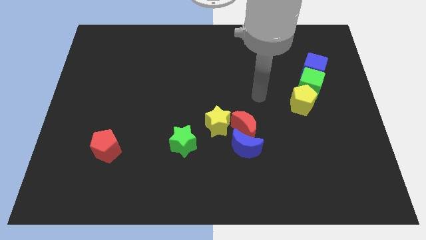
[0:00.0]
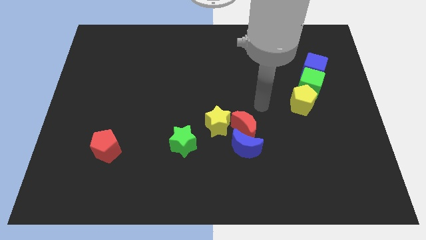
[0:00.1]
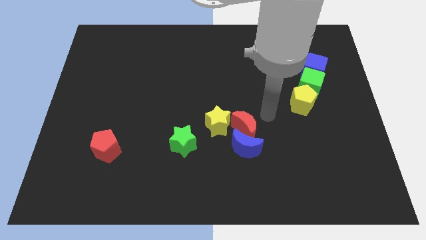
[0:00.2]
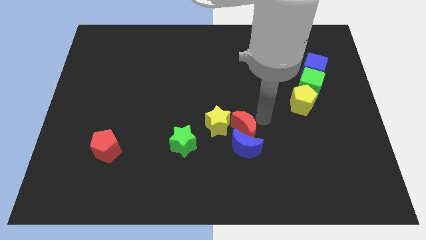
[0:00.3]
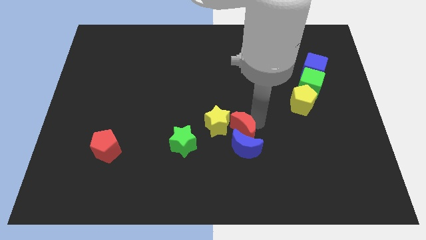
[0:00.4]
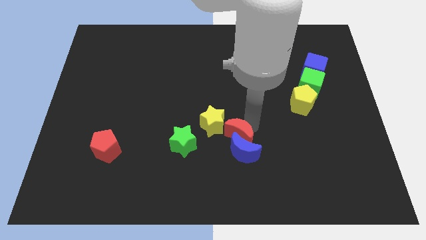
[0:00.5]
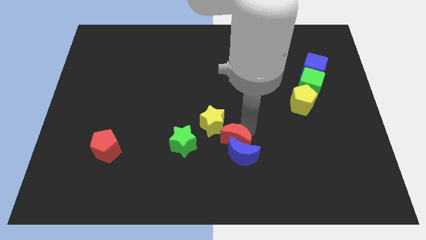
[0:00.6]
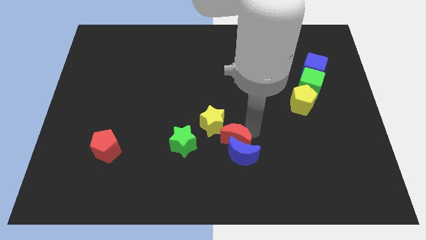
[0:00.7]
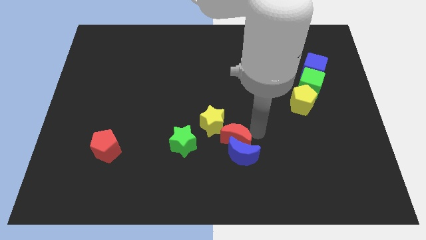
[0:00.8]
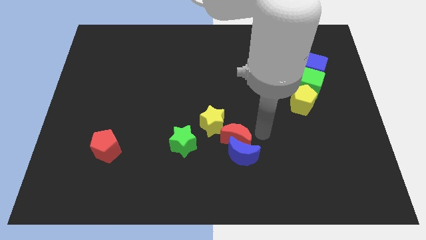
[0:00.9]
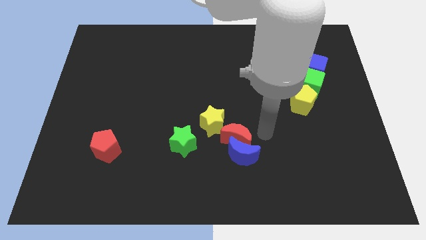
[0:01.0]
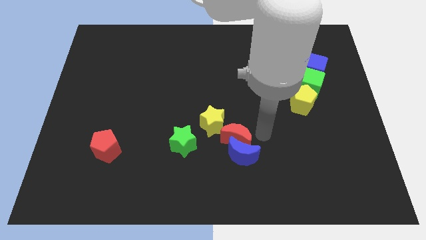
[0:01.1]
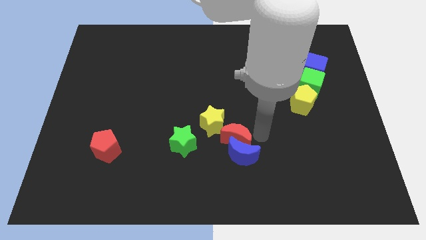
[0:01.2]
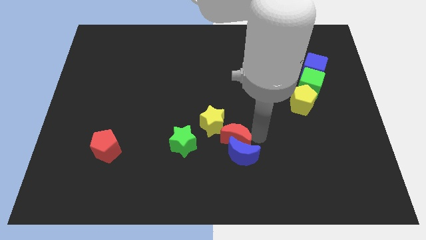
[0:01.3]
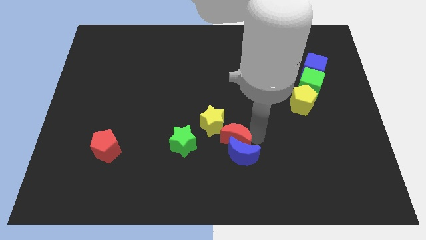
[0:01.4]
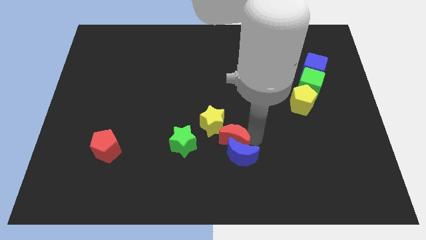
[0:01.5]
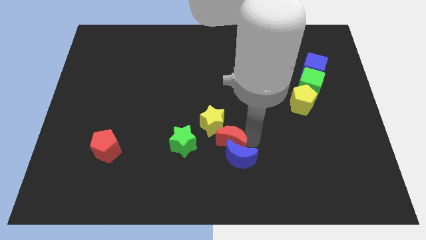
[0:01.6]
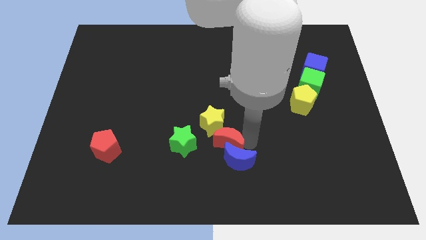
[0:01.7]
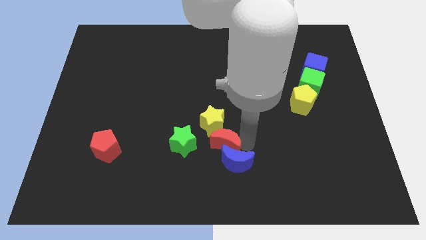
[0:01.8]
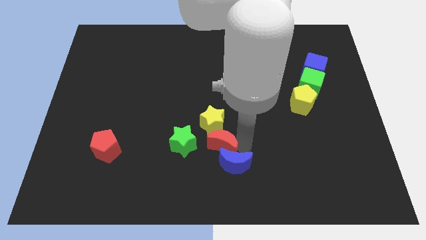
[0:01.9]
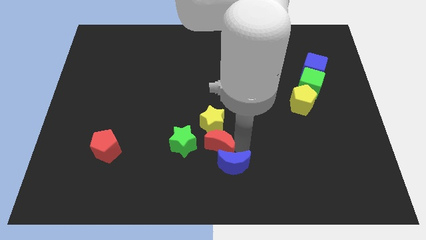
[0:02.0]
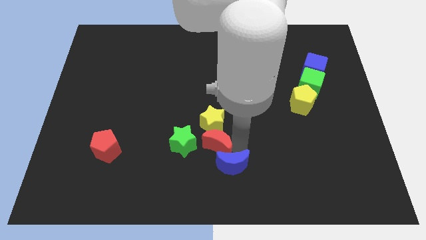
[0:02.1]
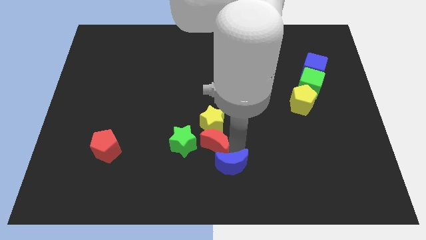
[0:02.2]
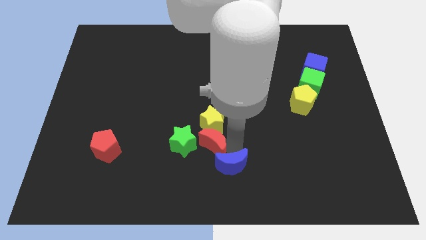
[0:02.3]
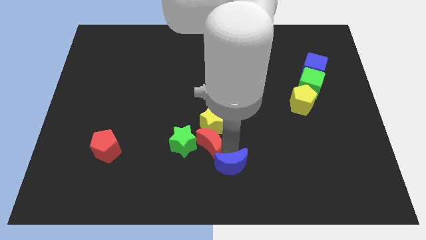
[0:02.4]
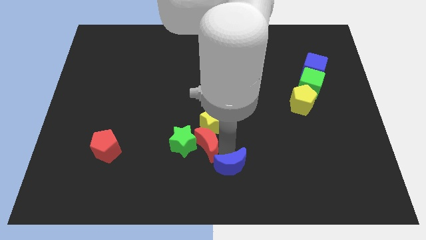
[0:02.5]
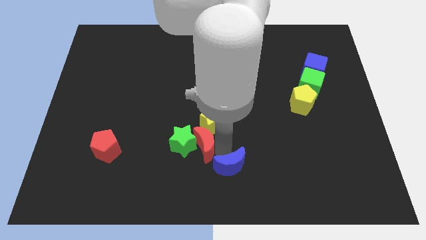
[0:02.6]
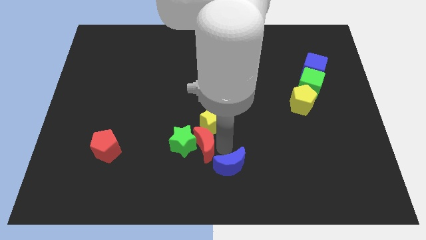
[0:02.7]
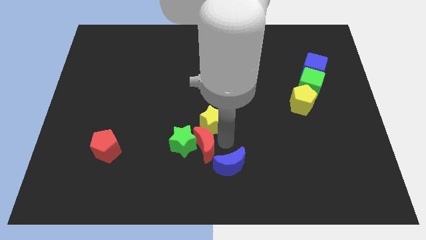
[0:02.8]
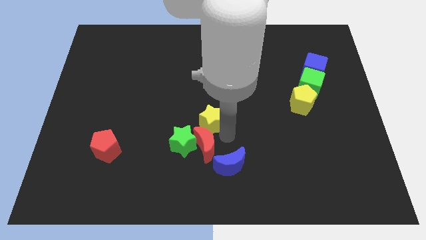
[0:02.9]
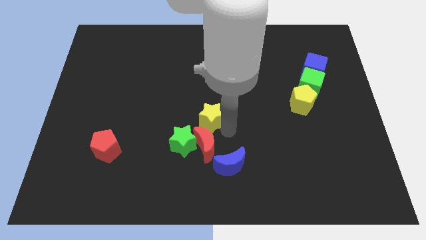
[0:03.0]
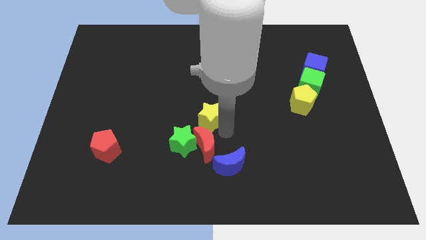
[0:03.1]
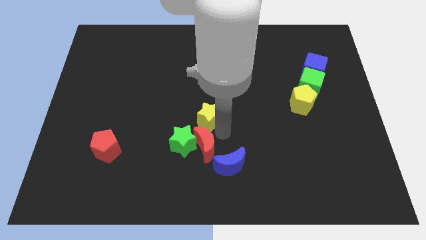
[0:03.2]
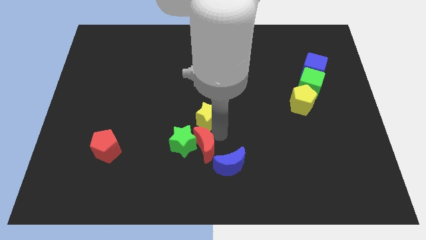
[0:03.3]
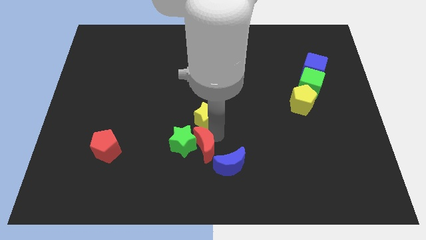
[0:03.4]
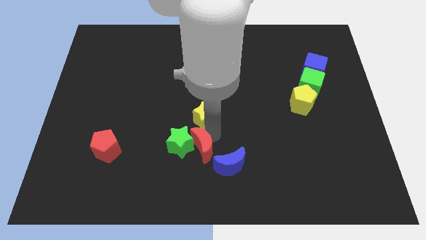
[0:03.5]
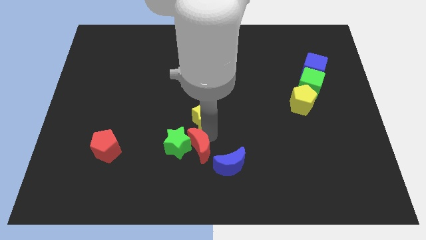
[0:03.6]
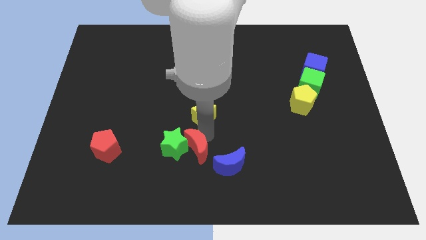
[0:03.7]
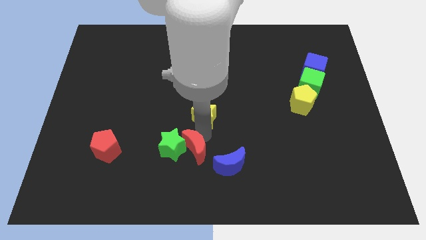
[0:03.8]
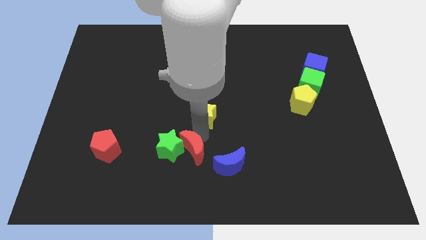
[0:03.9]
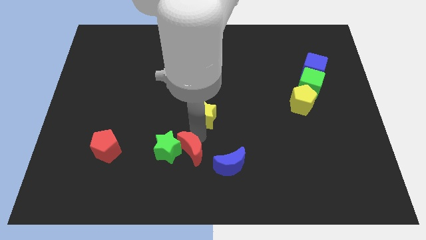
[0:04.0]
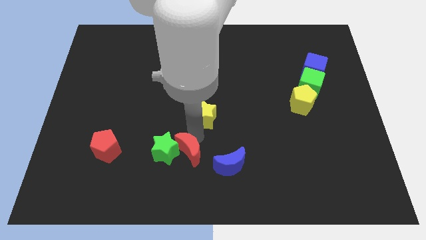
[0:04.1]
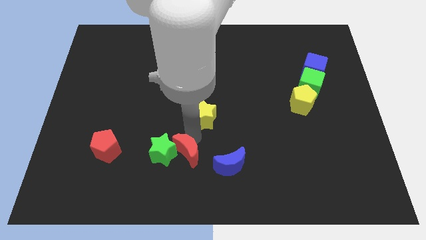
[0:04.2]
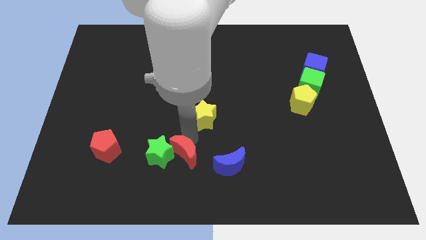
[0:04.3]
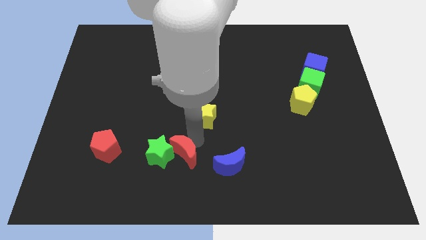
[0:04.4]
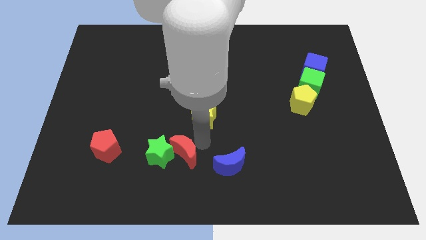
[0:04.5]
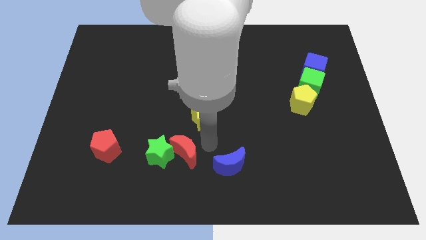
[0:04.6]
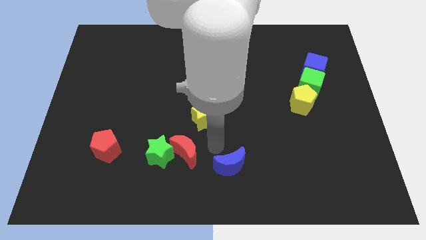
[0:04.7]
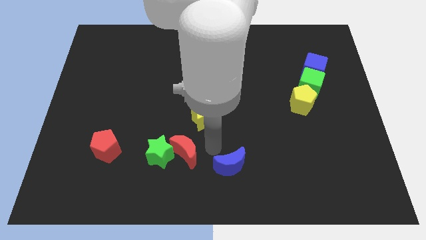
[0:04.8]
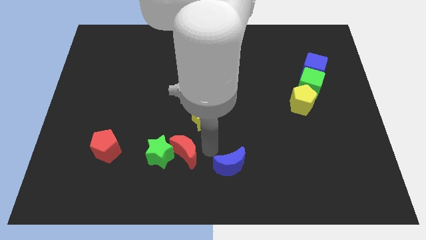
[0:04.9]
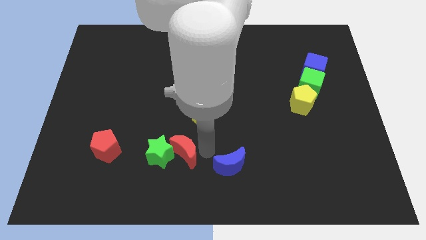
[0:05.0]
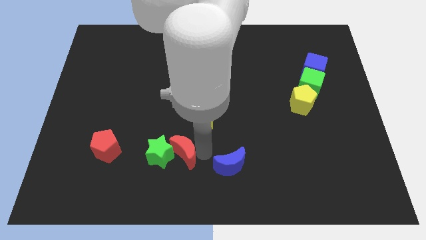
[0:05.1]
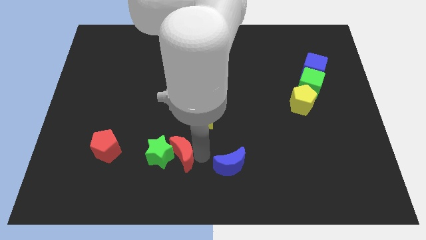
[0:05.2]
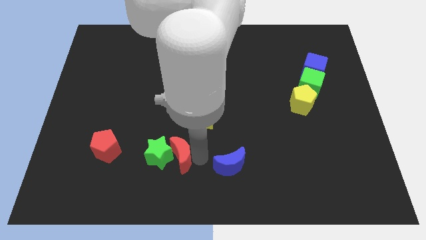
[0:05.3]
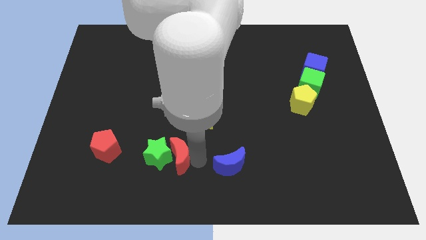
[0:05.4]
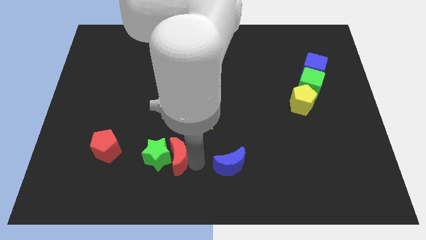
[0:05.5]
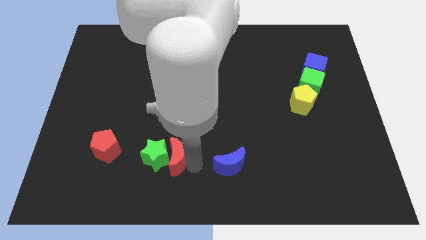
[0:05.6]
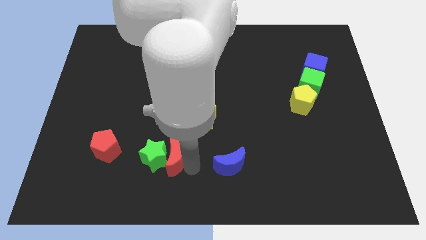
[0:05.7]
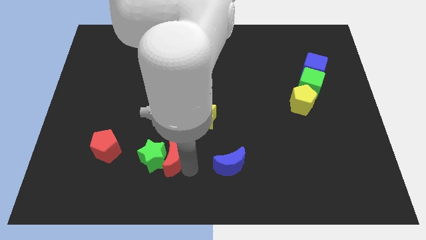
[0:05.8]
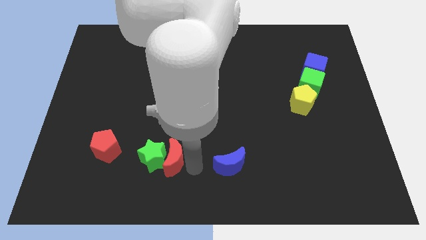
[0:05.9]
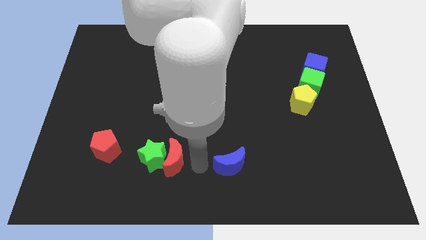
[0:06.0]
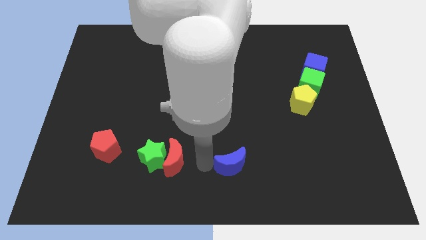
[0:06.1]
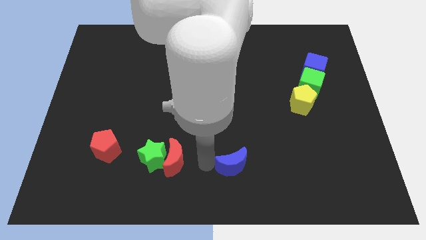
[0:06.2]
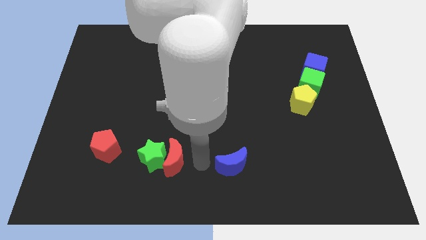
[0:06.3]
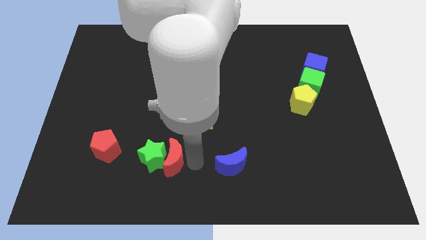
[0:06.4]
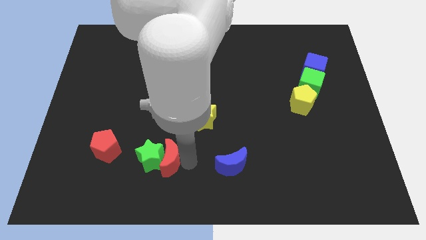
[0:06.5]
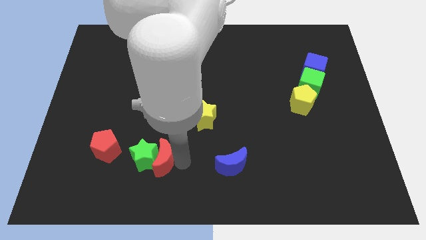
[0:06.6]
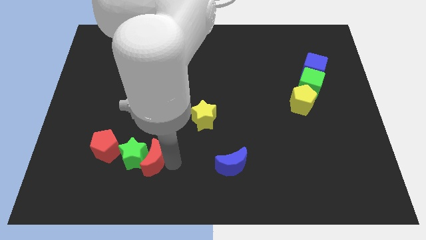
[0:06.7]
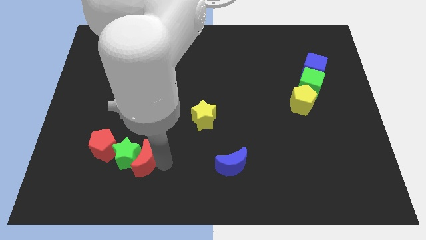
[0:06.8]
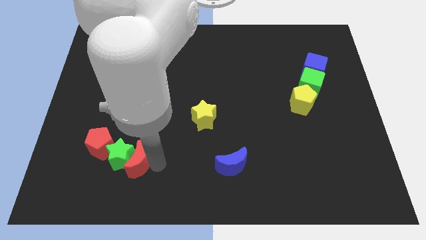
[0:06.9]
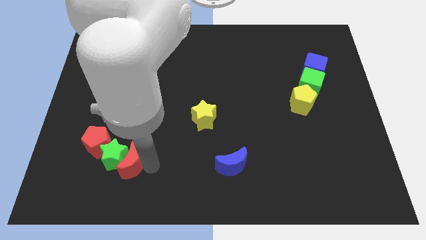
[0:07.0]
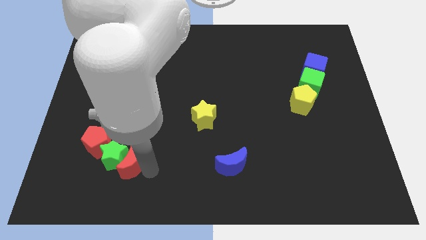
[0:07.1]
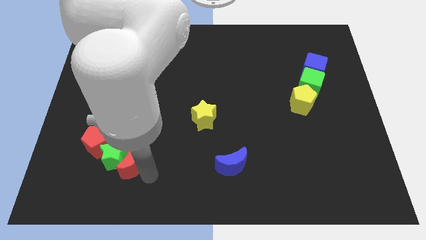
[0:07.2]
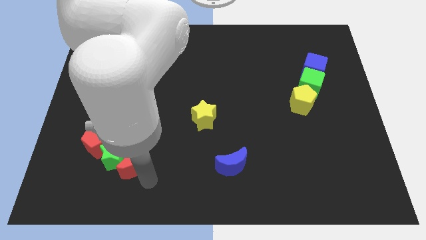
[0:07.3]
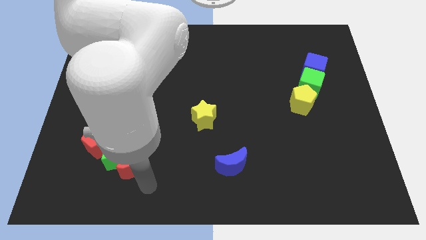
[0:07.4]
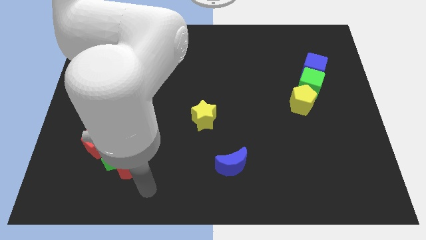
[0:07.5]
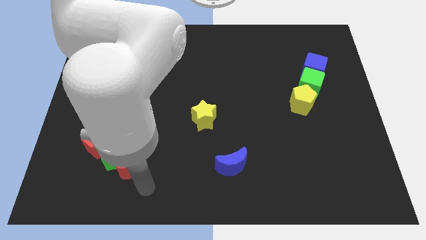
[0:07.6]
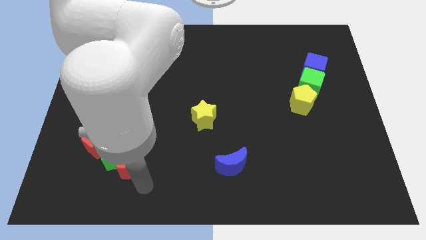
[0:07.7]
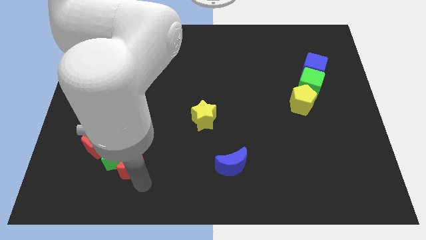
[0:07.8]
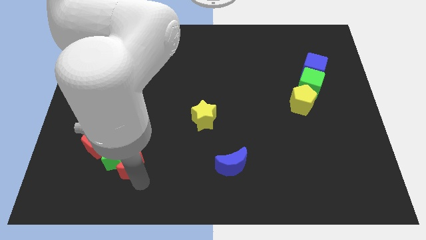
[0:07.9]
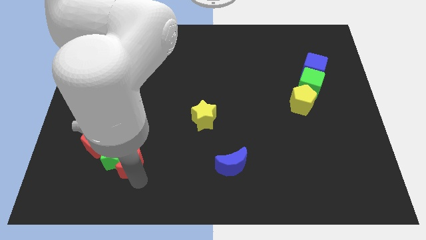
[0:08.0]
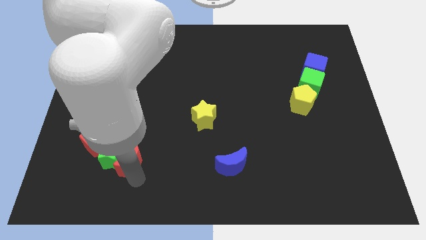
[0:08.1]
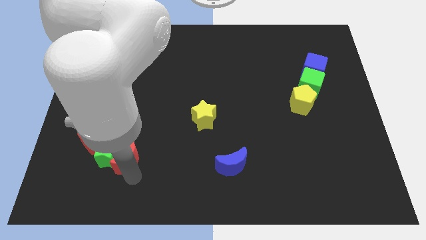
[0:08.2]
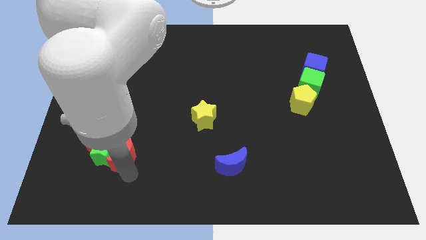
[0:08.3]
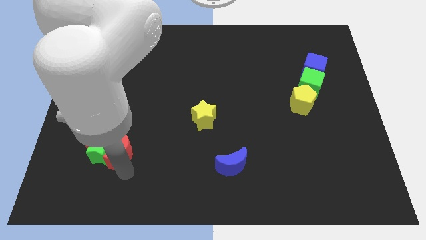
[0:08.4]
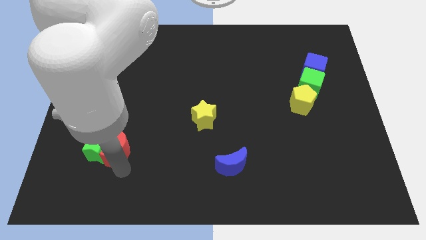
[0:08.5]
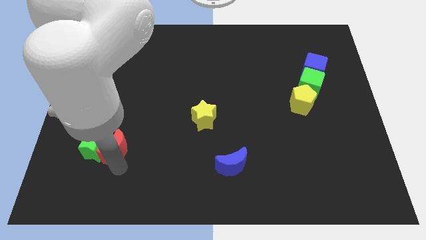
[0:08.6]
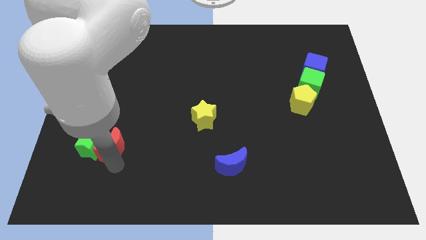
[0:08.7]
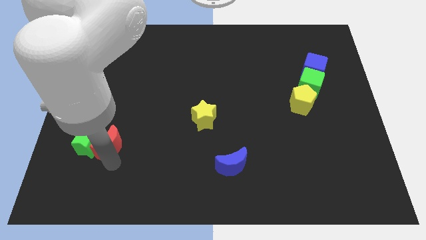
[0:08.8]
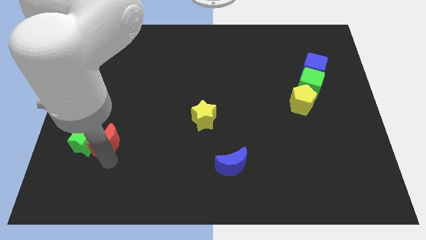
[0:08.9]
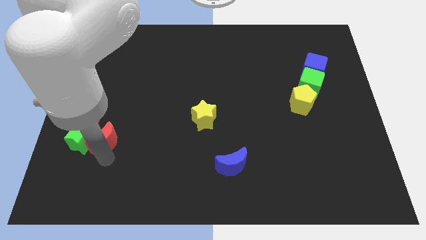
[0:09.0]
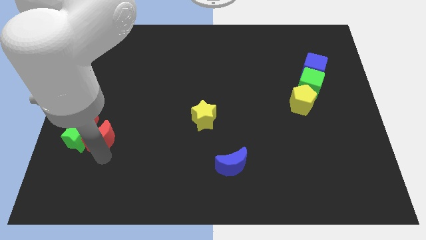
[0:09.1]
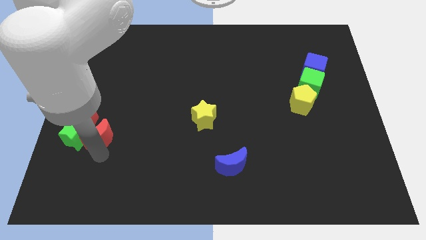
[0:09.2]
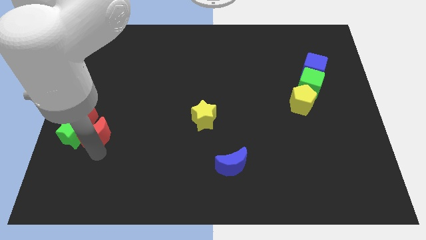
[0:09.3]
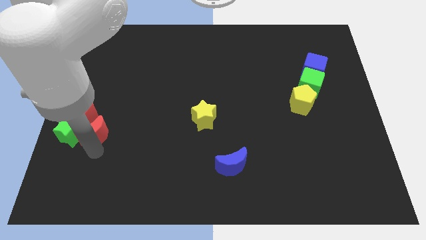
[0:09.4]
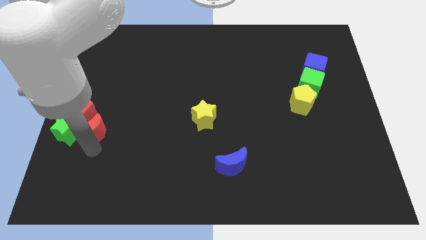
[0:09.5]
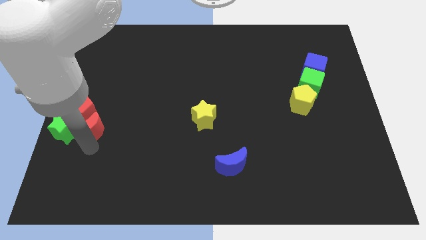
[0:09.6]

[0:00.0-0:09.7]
push the red moon close to the red pentagon
